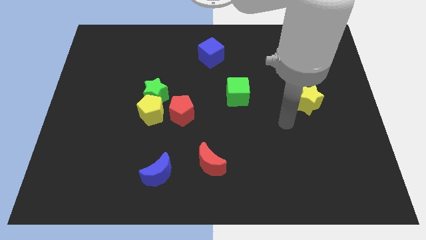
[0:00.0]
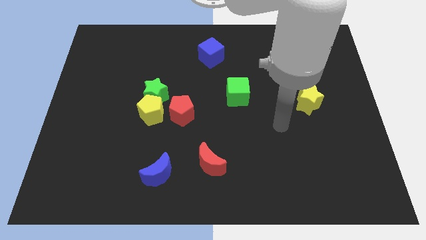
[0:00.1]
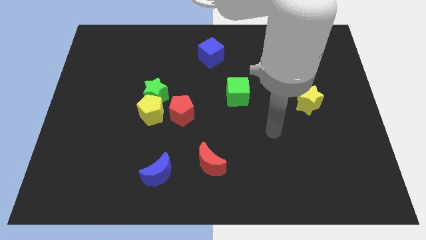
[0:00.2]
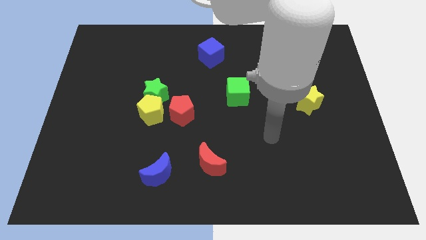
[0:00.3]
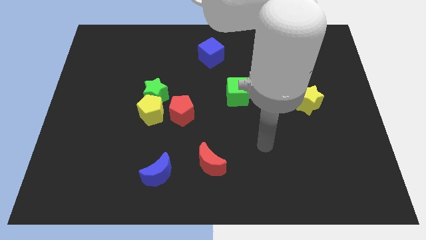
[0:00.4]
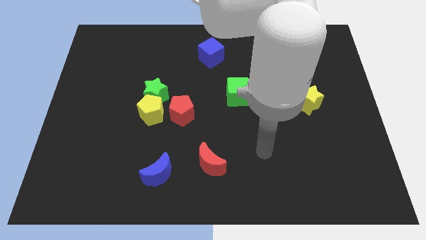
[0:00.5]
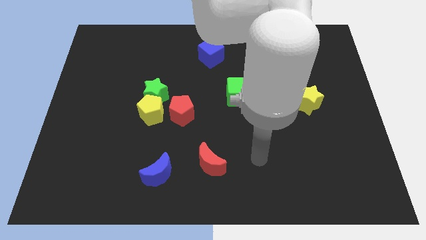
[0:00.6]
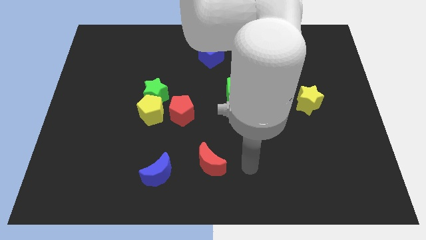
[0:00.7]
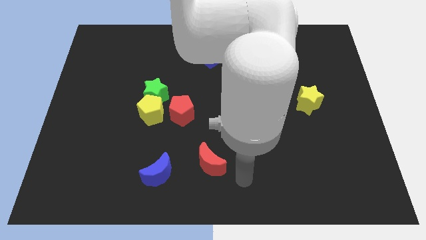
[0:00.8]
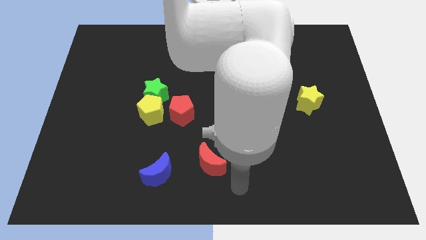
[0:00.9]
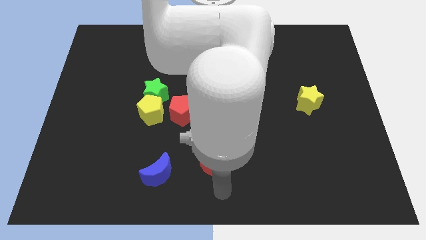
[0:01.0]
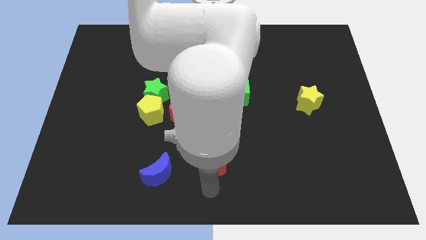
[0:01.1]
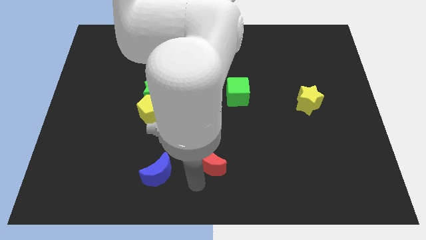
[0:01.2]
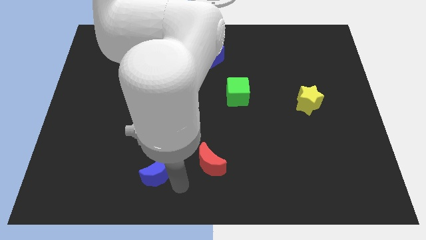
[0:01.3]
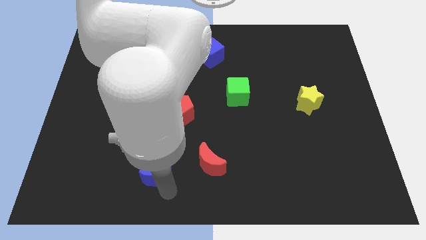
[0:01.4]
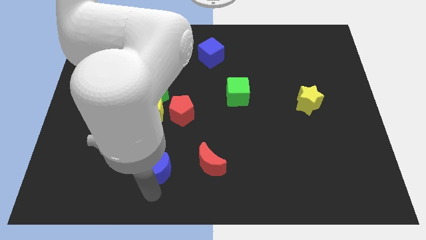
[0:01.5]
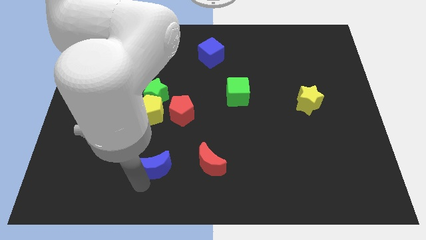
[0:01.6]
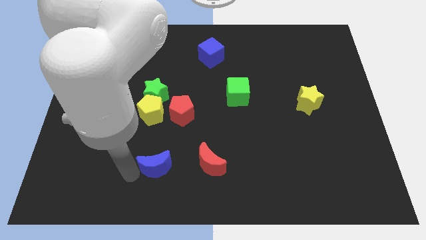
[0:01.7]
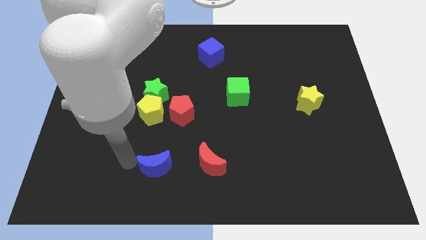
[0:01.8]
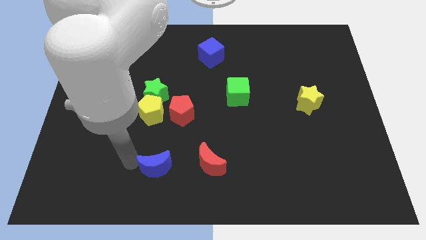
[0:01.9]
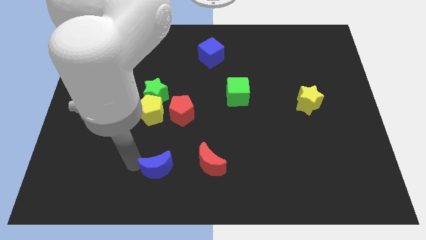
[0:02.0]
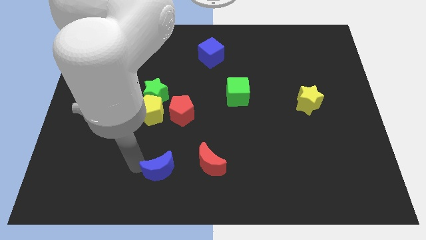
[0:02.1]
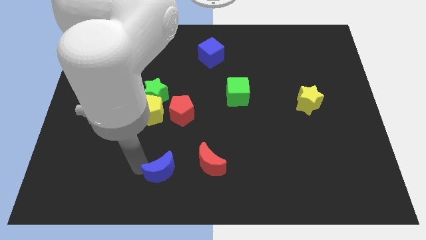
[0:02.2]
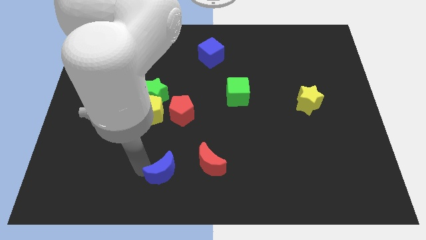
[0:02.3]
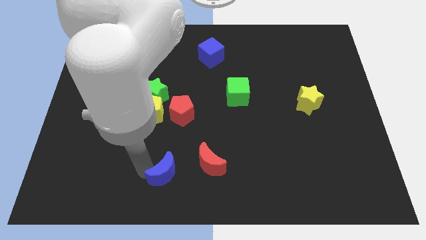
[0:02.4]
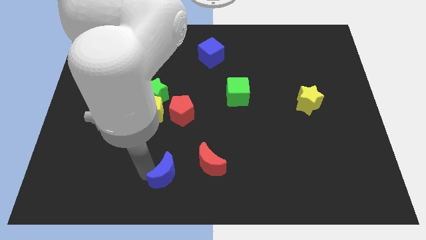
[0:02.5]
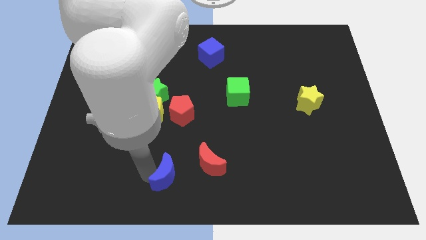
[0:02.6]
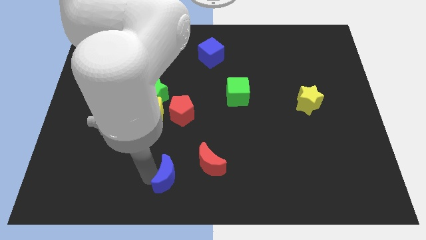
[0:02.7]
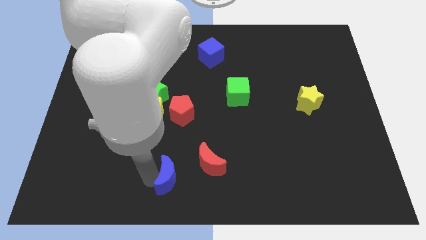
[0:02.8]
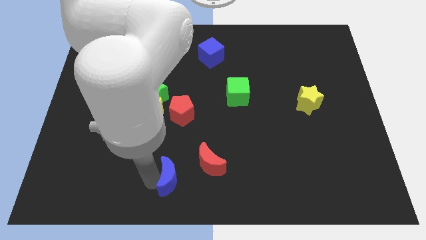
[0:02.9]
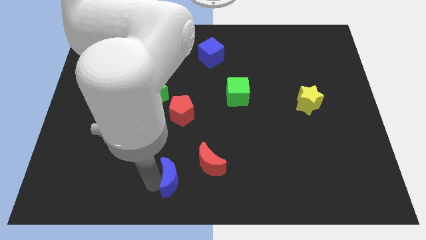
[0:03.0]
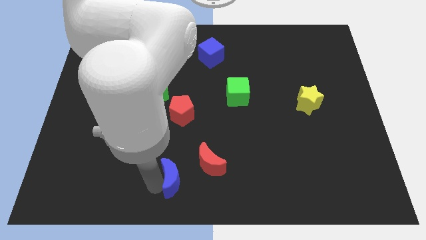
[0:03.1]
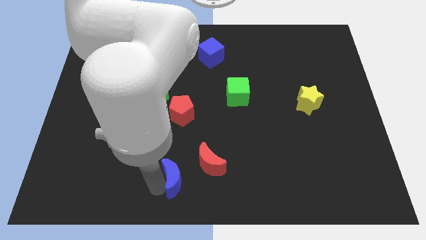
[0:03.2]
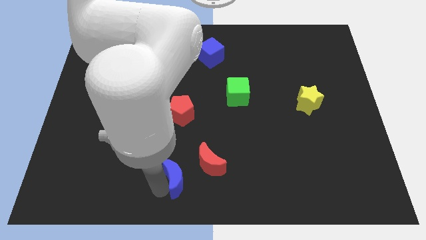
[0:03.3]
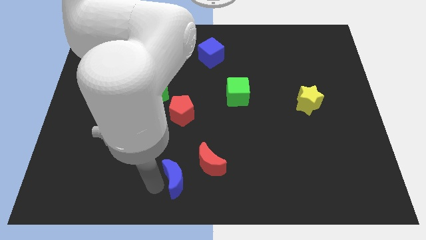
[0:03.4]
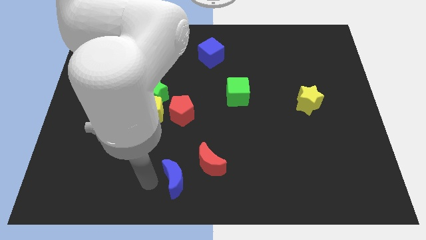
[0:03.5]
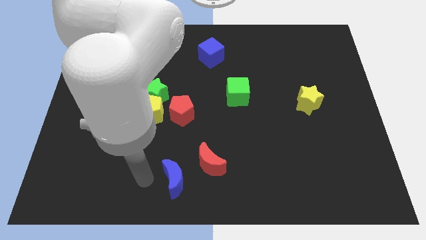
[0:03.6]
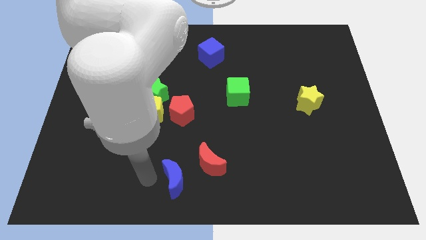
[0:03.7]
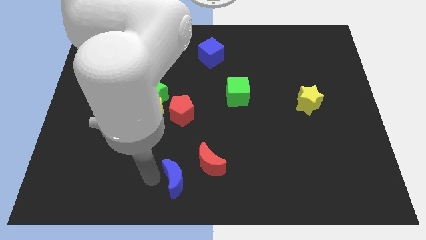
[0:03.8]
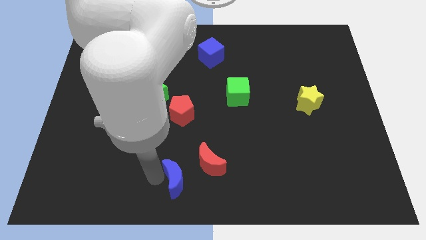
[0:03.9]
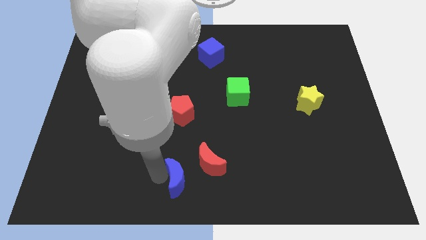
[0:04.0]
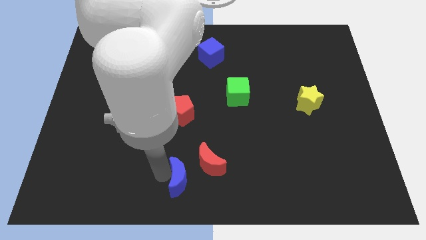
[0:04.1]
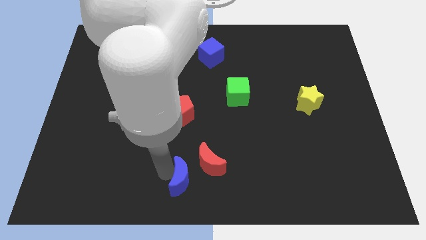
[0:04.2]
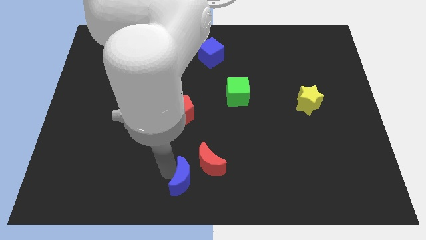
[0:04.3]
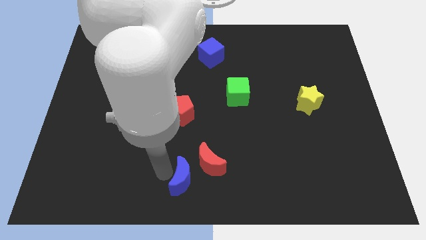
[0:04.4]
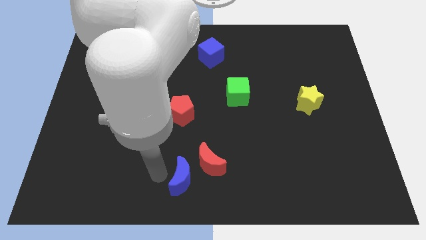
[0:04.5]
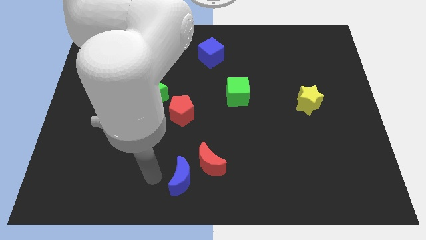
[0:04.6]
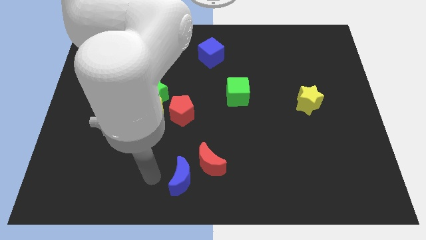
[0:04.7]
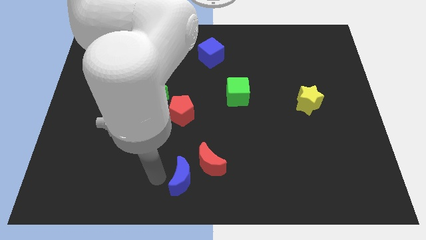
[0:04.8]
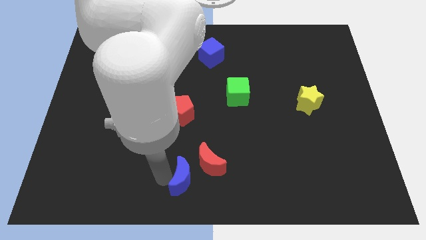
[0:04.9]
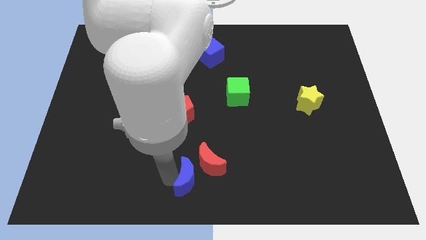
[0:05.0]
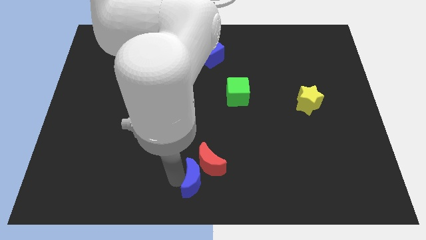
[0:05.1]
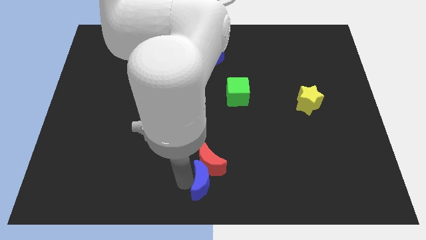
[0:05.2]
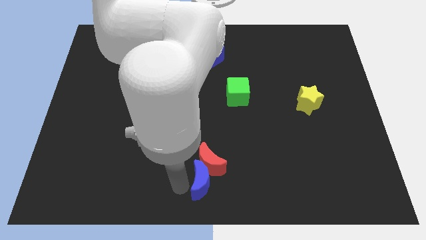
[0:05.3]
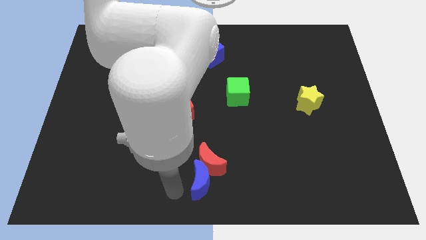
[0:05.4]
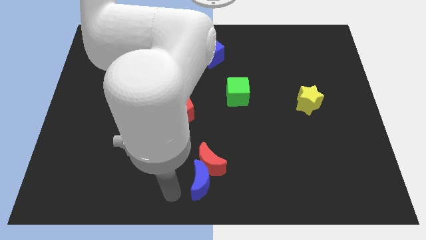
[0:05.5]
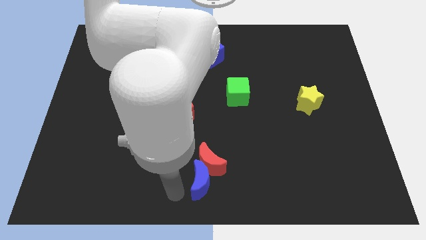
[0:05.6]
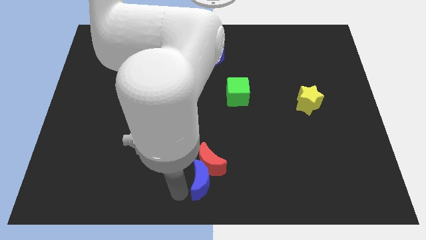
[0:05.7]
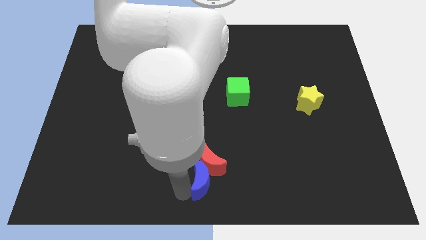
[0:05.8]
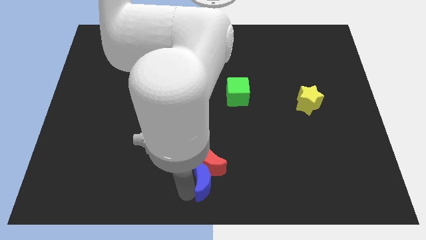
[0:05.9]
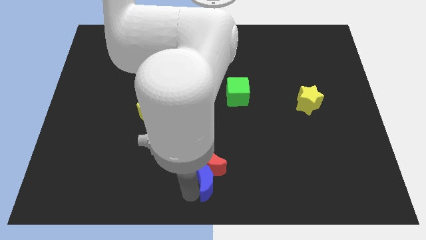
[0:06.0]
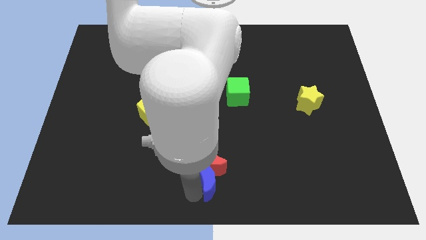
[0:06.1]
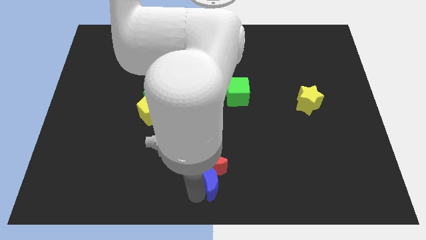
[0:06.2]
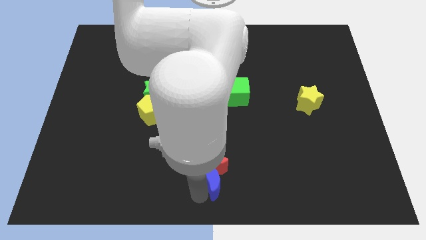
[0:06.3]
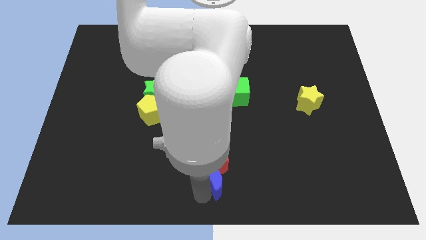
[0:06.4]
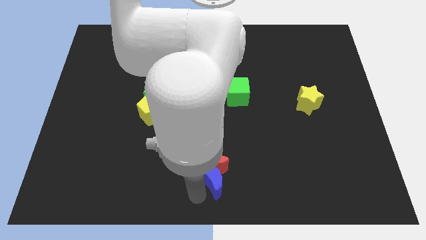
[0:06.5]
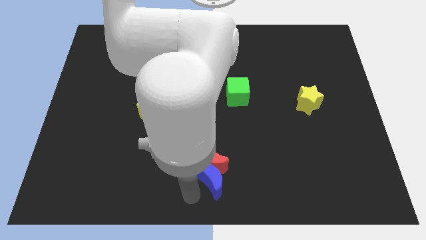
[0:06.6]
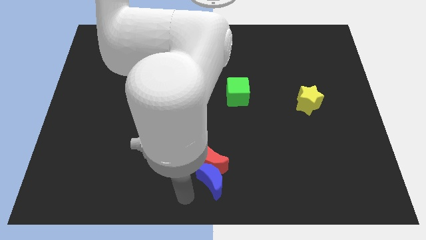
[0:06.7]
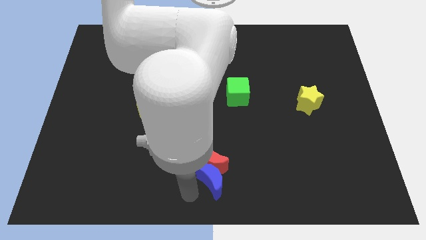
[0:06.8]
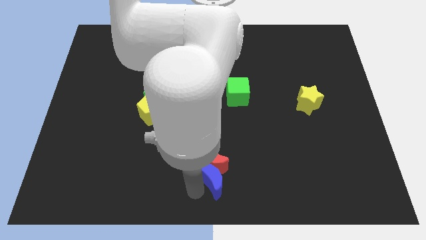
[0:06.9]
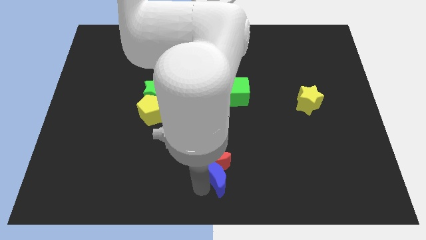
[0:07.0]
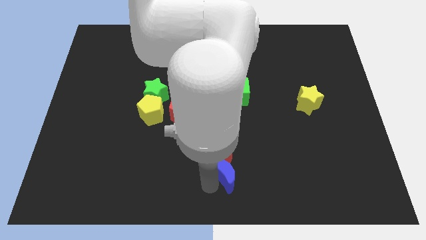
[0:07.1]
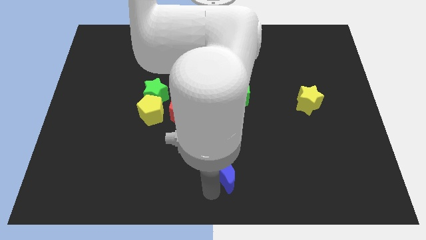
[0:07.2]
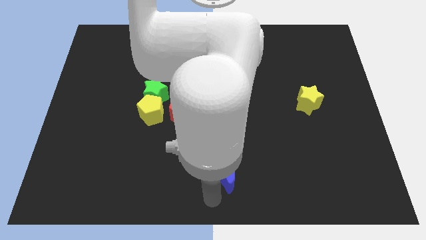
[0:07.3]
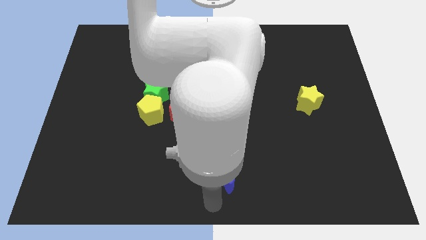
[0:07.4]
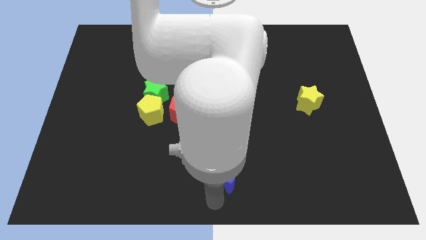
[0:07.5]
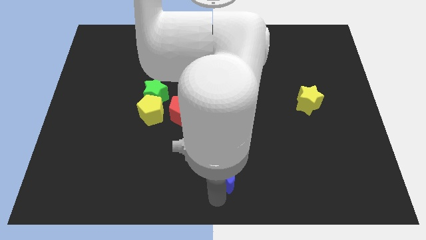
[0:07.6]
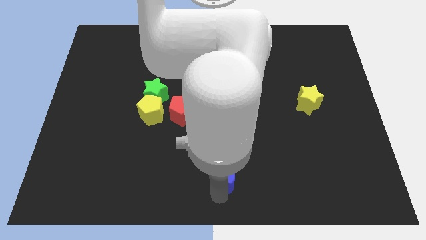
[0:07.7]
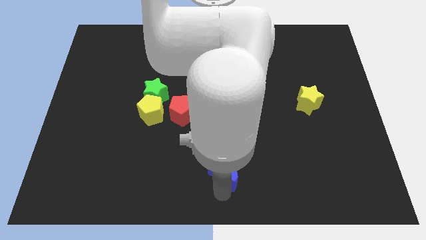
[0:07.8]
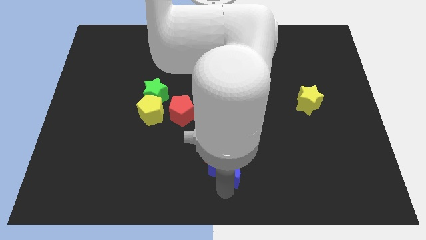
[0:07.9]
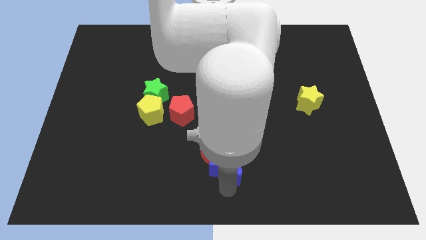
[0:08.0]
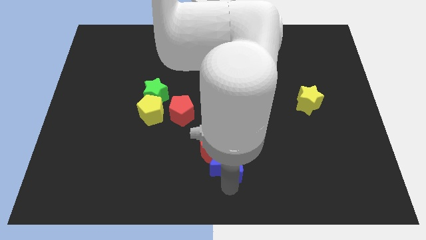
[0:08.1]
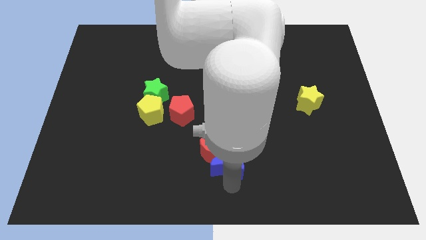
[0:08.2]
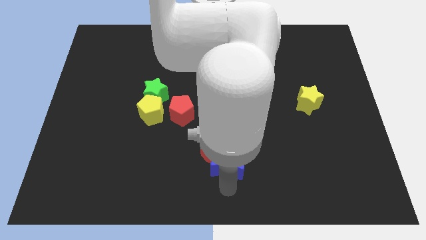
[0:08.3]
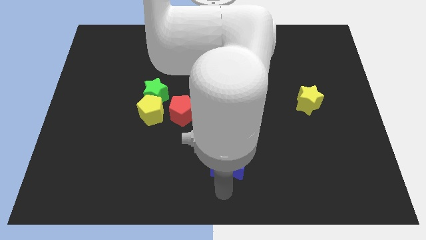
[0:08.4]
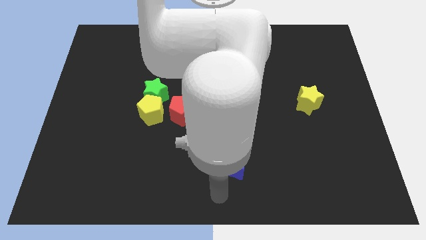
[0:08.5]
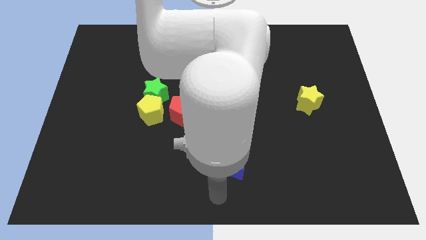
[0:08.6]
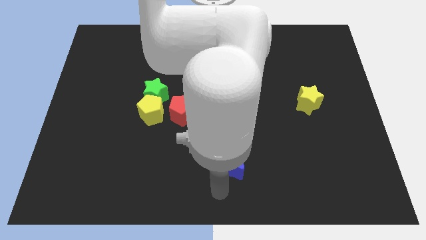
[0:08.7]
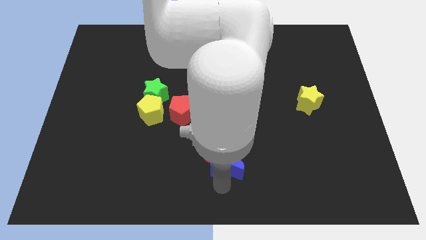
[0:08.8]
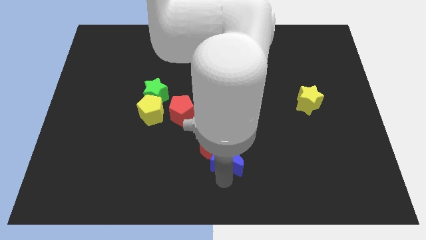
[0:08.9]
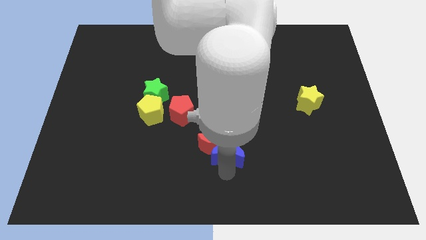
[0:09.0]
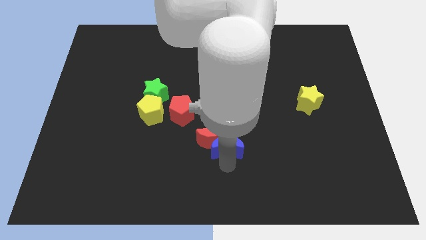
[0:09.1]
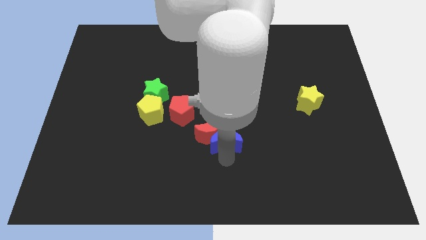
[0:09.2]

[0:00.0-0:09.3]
push the blue moon to the center of the board
